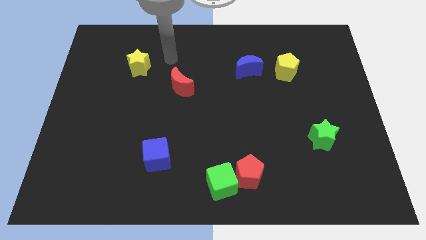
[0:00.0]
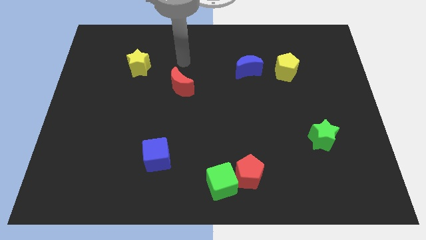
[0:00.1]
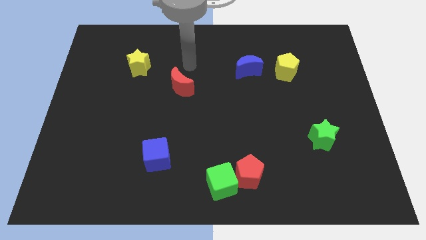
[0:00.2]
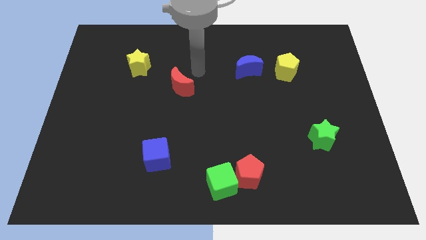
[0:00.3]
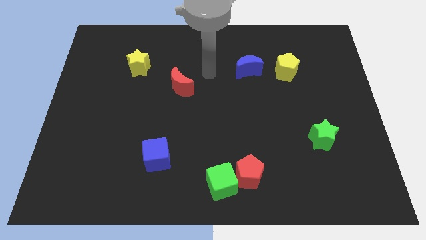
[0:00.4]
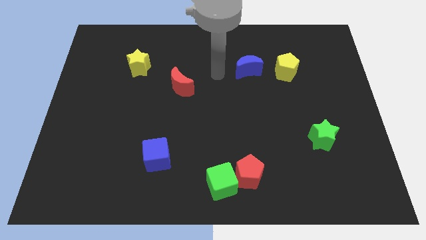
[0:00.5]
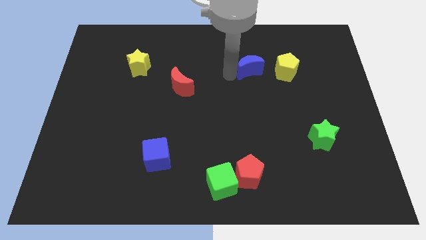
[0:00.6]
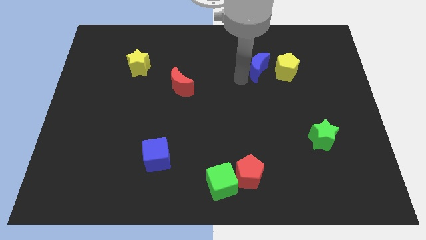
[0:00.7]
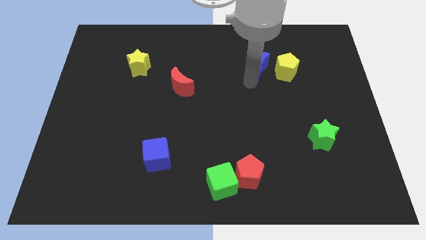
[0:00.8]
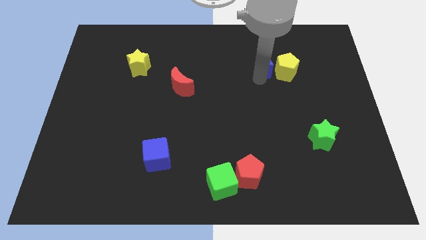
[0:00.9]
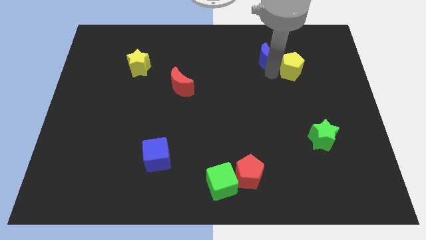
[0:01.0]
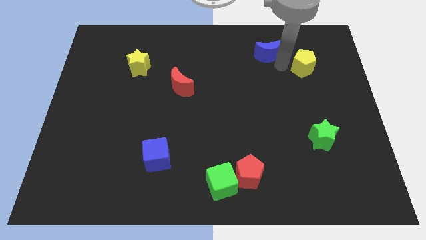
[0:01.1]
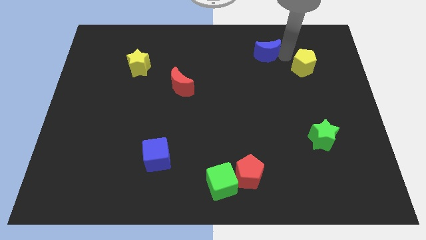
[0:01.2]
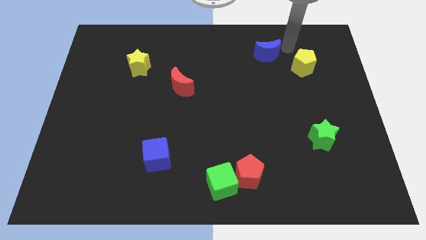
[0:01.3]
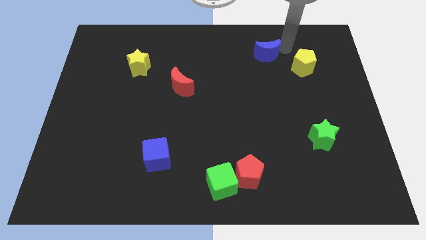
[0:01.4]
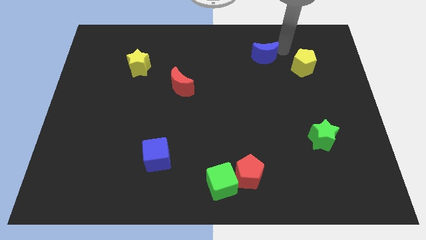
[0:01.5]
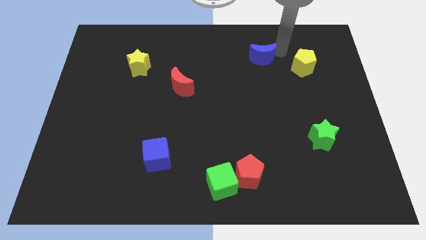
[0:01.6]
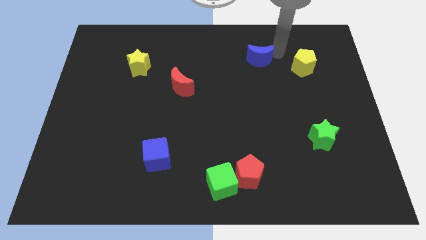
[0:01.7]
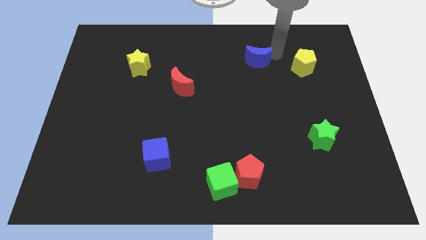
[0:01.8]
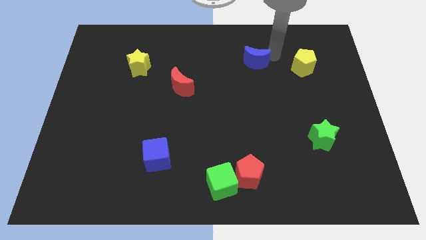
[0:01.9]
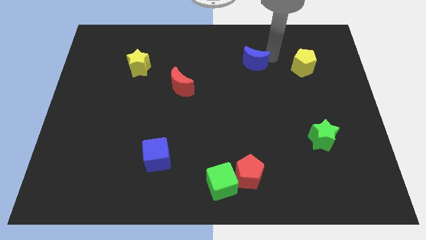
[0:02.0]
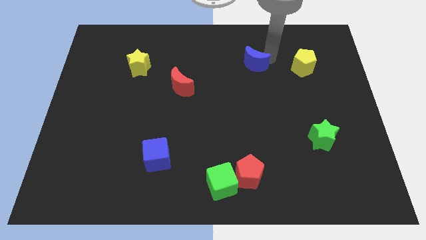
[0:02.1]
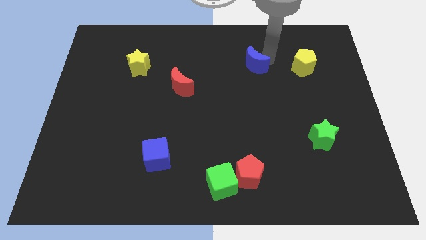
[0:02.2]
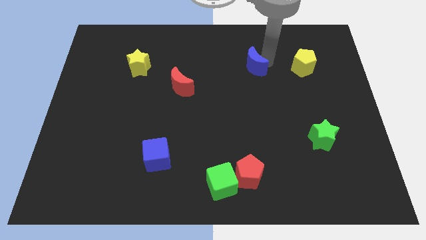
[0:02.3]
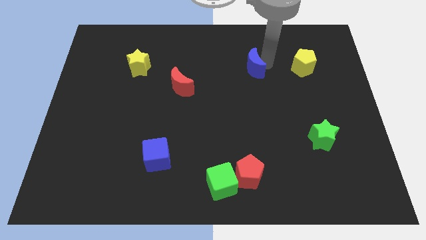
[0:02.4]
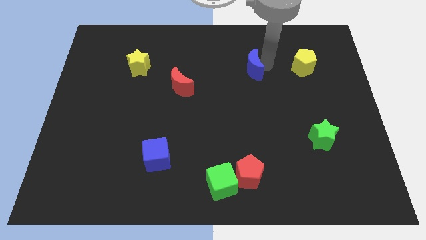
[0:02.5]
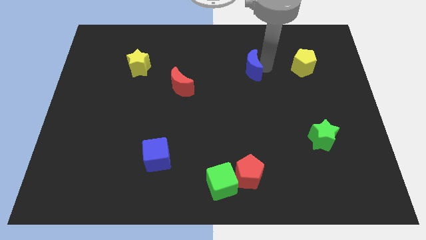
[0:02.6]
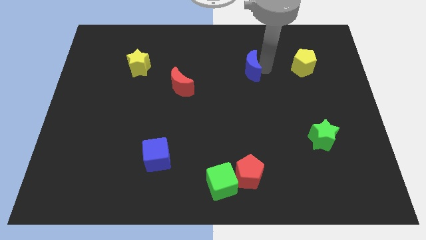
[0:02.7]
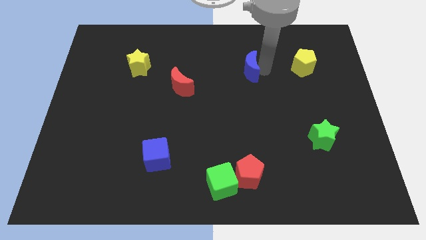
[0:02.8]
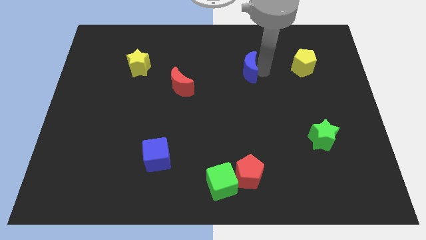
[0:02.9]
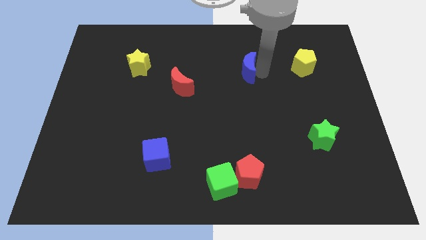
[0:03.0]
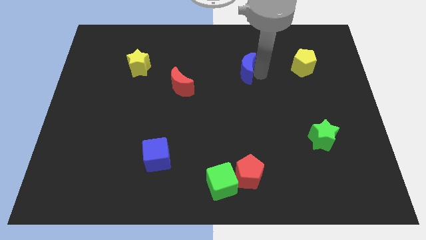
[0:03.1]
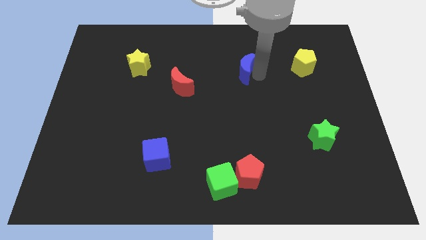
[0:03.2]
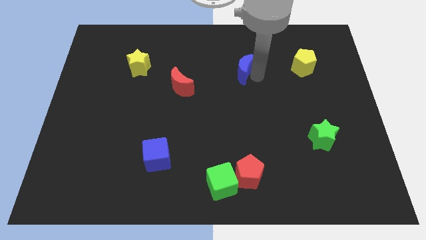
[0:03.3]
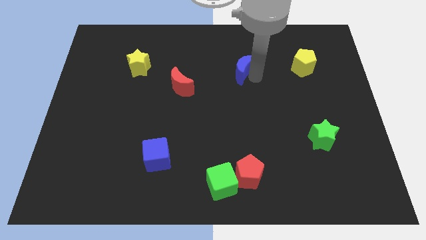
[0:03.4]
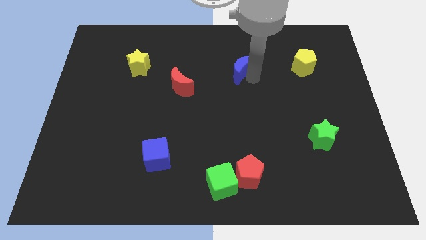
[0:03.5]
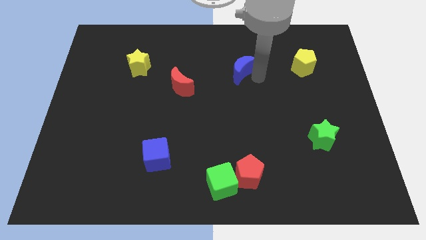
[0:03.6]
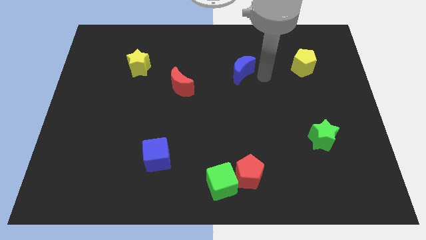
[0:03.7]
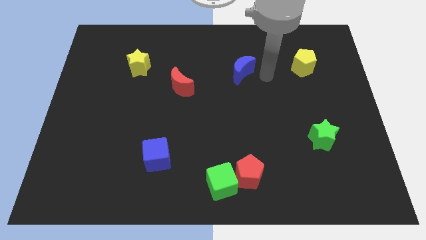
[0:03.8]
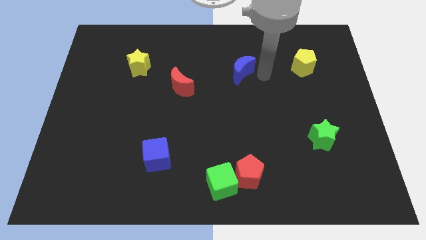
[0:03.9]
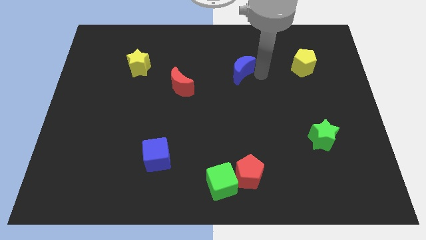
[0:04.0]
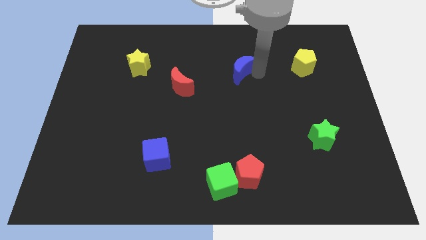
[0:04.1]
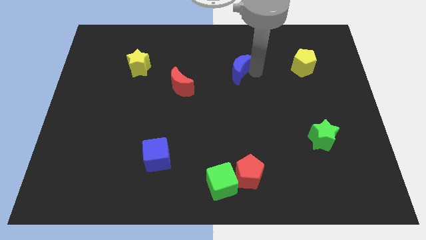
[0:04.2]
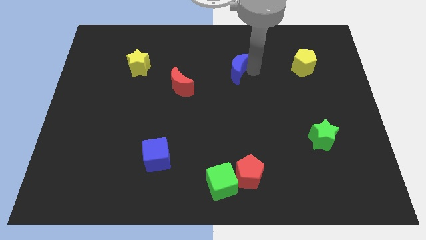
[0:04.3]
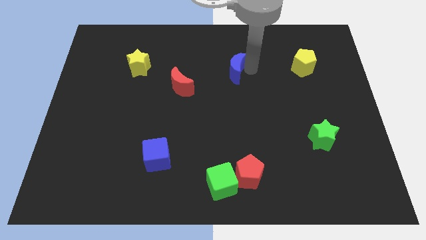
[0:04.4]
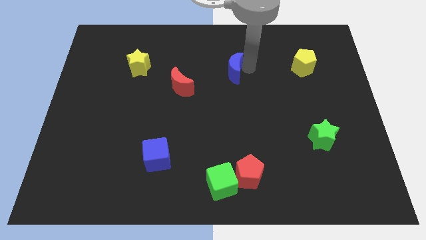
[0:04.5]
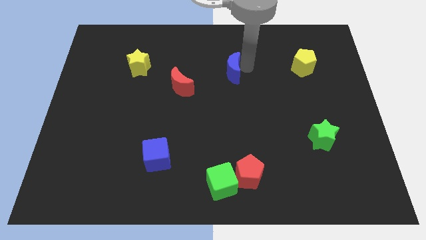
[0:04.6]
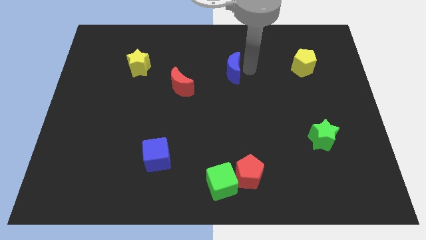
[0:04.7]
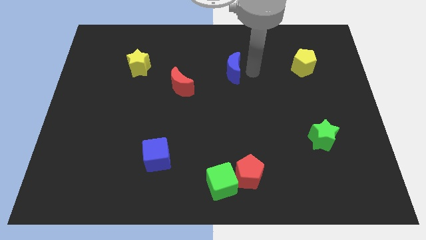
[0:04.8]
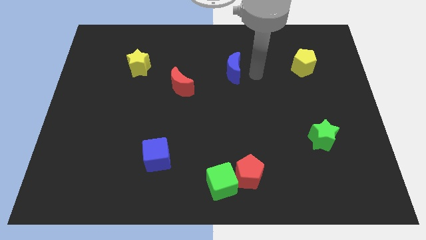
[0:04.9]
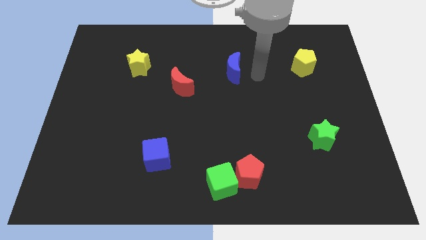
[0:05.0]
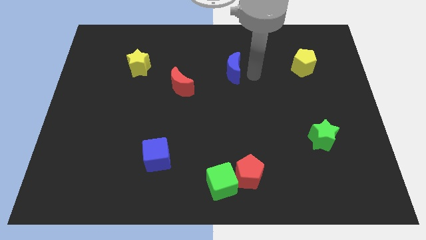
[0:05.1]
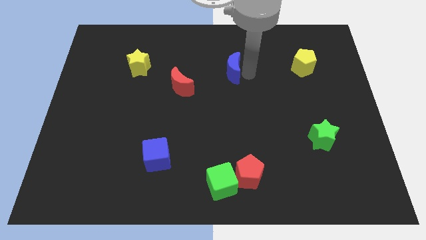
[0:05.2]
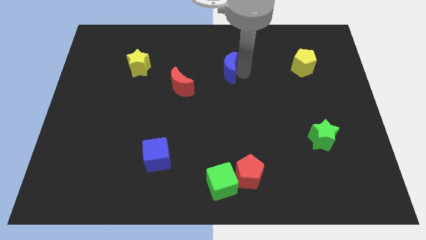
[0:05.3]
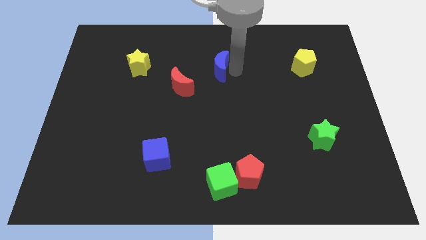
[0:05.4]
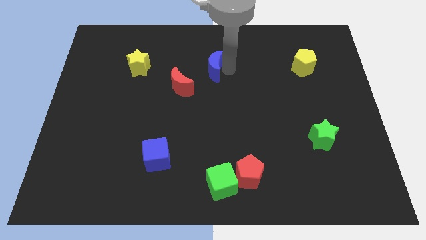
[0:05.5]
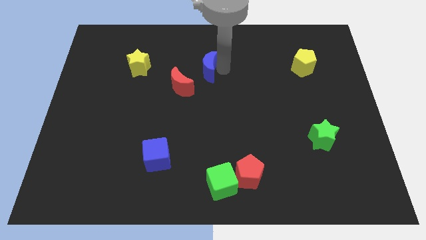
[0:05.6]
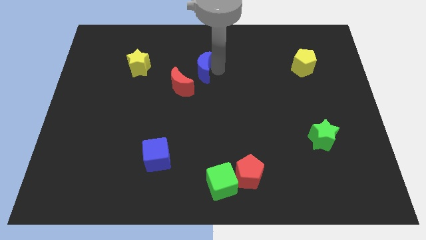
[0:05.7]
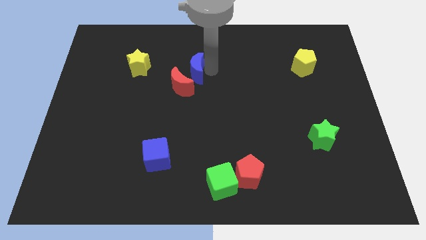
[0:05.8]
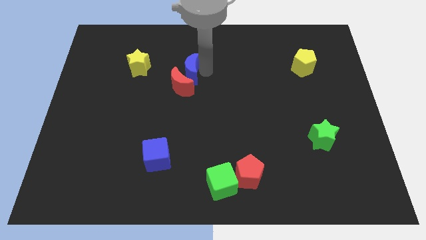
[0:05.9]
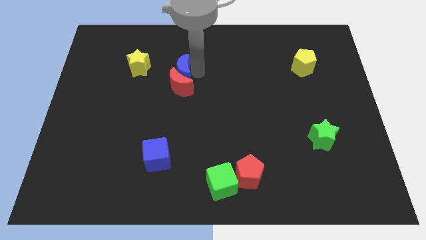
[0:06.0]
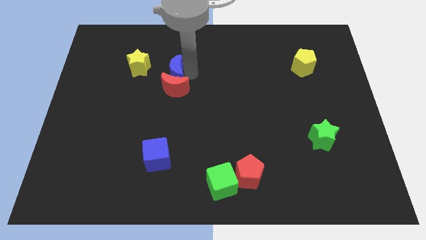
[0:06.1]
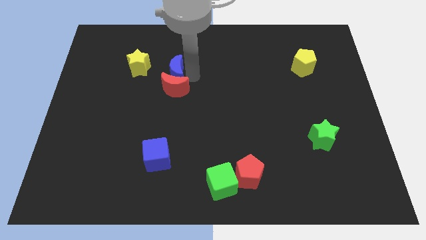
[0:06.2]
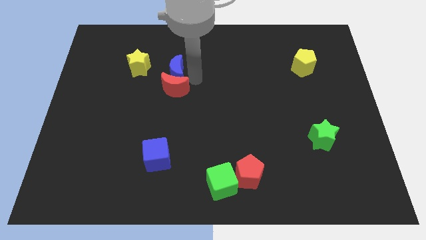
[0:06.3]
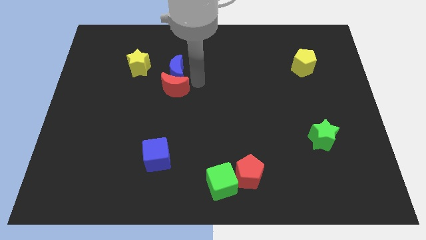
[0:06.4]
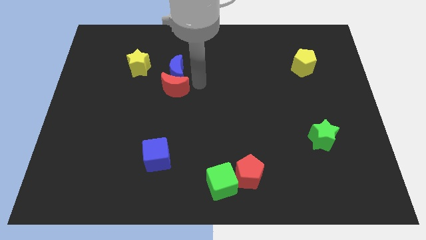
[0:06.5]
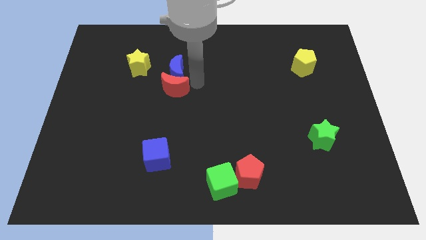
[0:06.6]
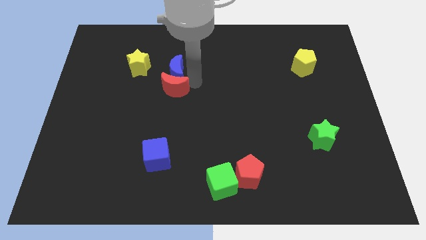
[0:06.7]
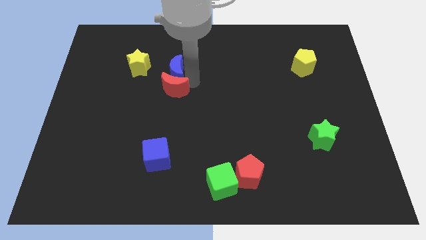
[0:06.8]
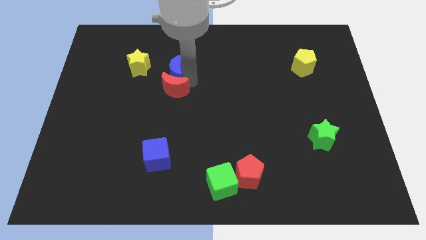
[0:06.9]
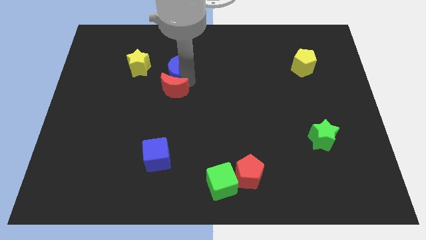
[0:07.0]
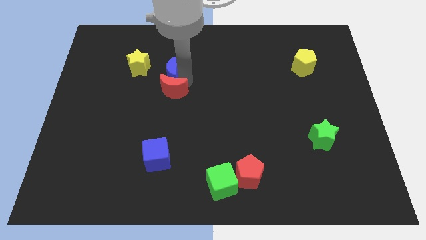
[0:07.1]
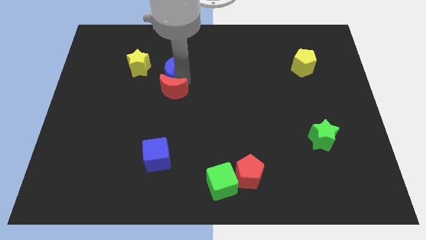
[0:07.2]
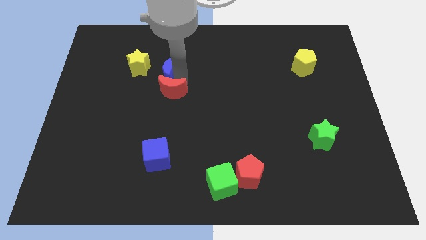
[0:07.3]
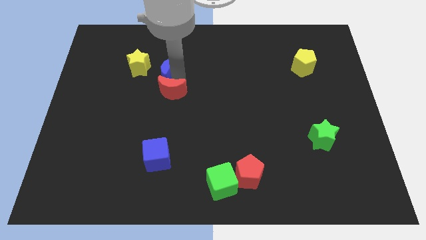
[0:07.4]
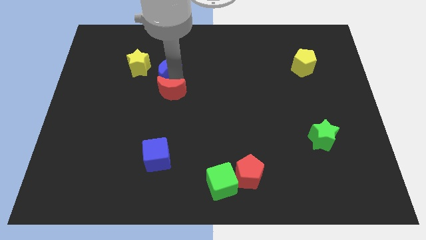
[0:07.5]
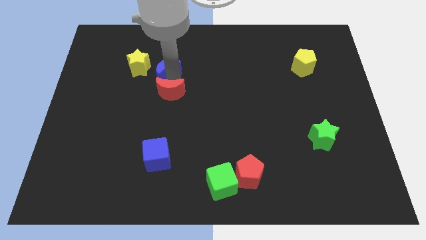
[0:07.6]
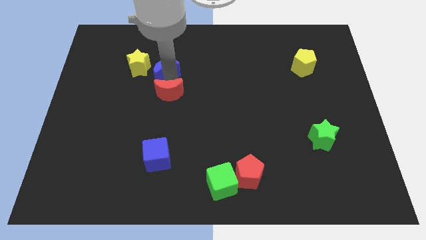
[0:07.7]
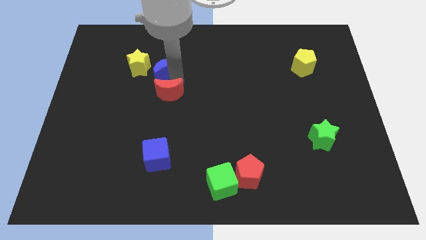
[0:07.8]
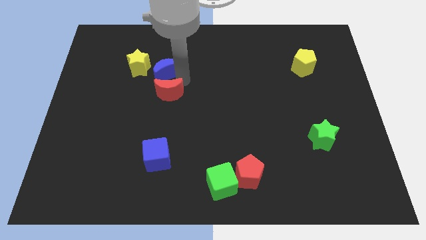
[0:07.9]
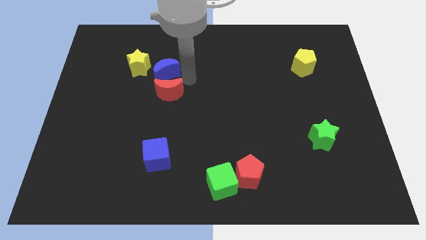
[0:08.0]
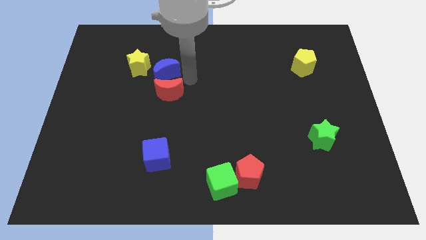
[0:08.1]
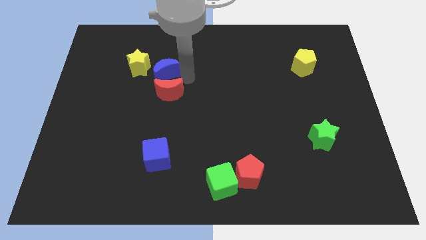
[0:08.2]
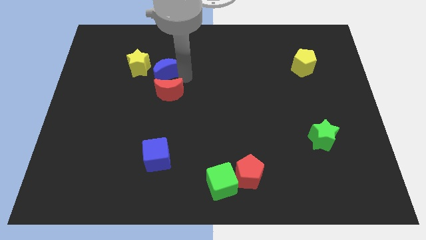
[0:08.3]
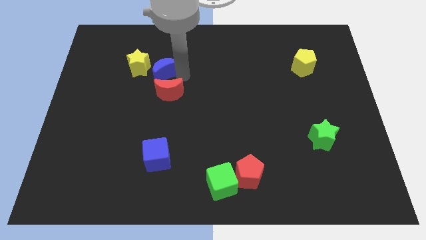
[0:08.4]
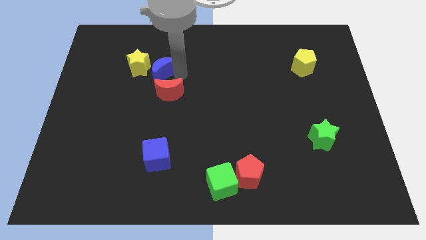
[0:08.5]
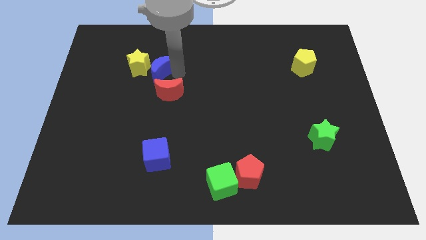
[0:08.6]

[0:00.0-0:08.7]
slide the blue moon next to the yellow star
